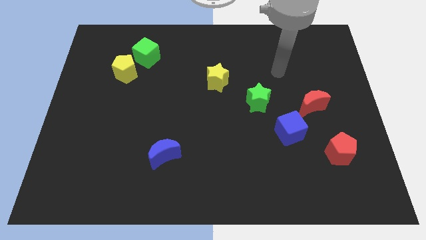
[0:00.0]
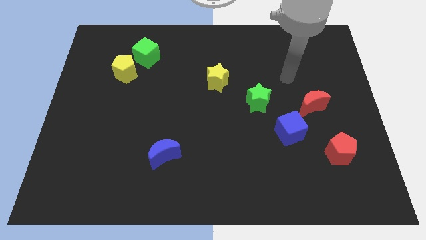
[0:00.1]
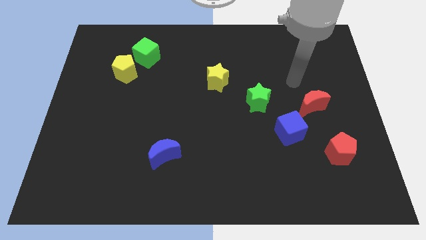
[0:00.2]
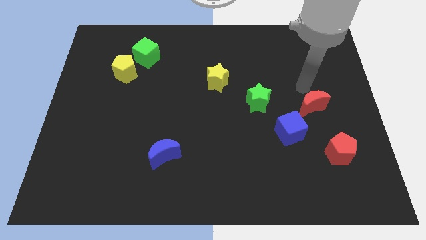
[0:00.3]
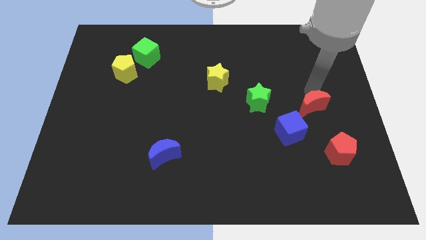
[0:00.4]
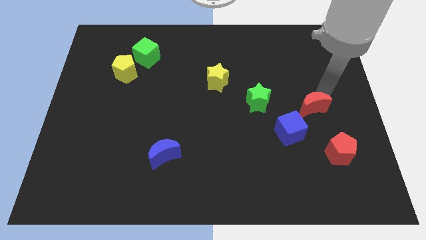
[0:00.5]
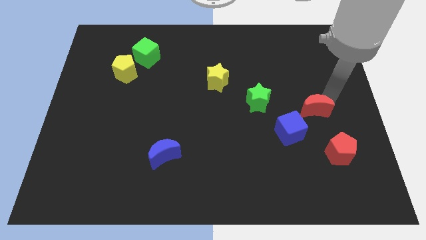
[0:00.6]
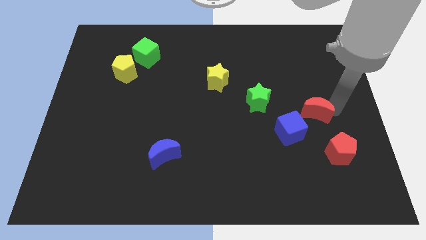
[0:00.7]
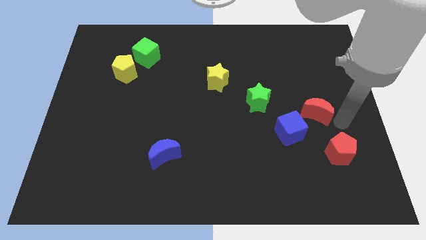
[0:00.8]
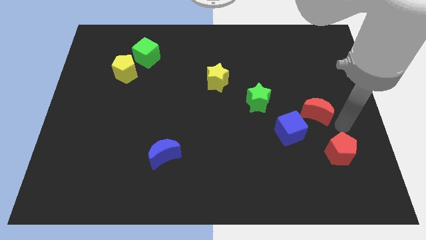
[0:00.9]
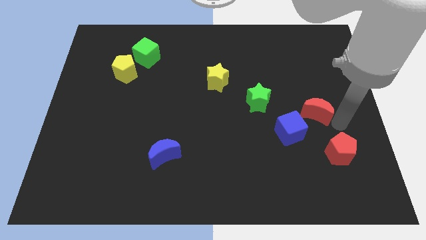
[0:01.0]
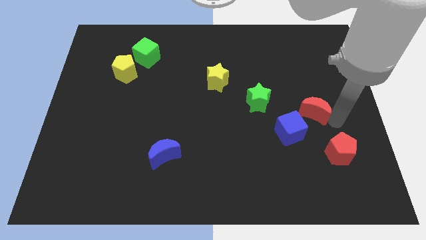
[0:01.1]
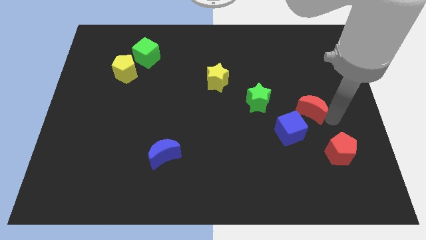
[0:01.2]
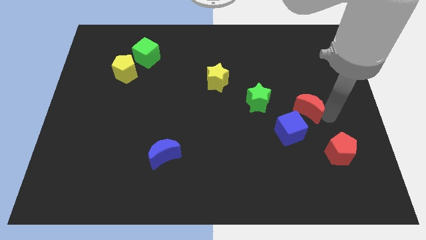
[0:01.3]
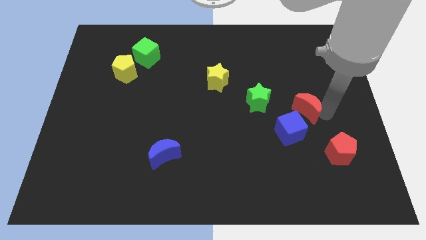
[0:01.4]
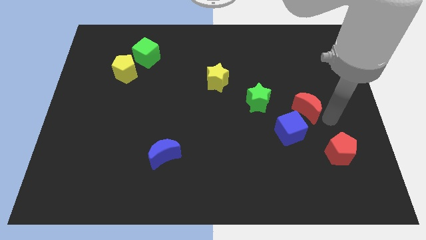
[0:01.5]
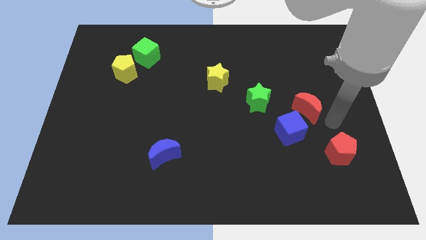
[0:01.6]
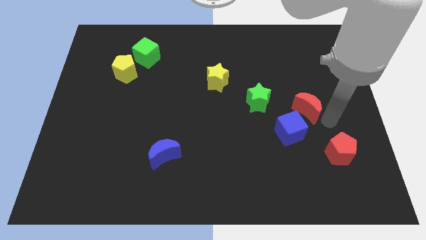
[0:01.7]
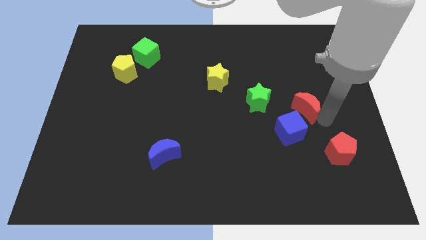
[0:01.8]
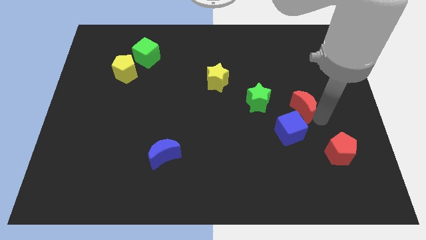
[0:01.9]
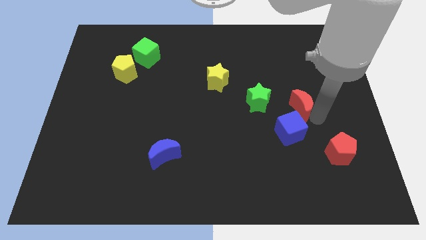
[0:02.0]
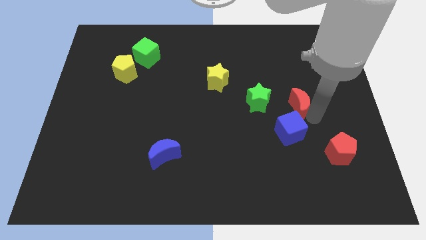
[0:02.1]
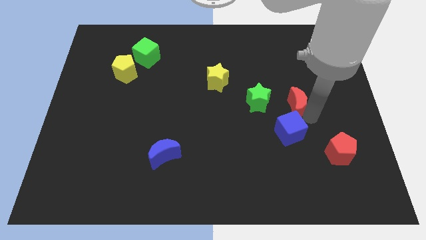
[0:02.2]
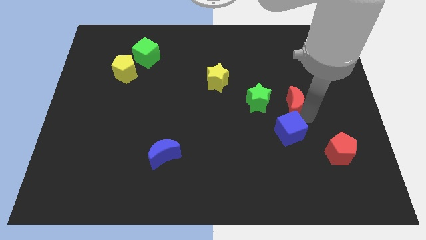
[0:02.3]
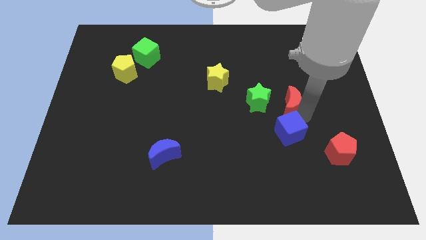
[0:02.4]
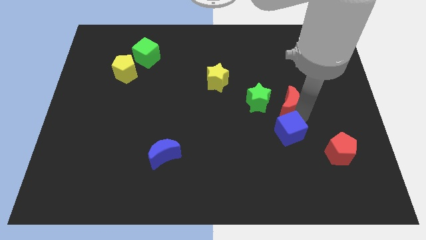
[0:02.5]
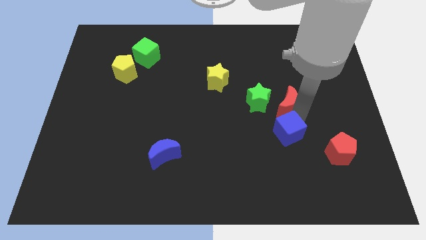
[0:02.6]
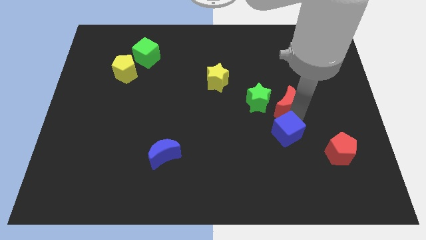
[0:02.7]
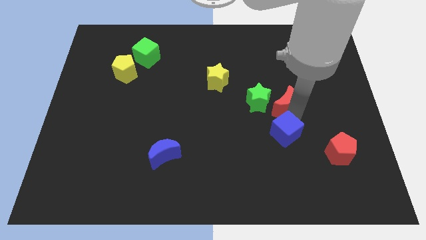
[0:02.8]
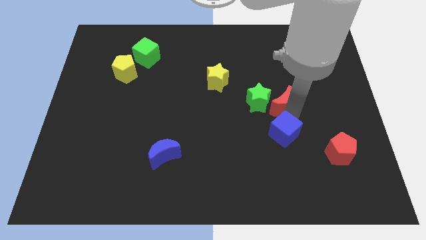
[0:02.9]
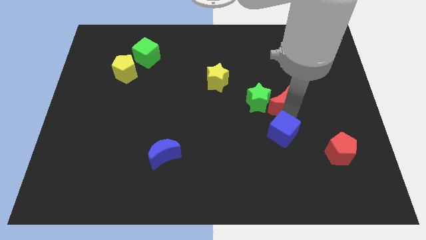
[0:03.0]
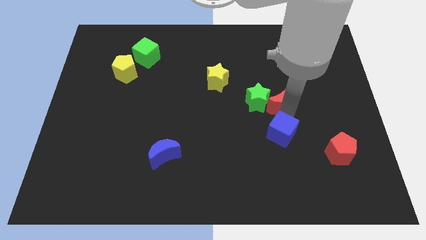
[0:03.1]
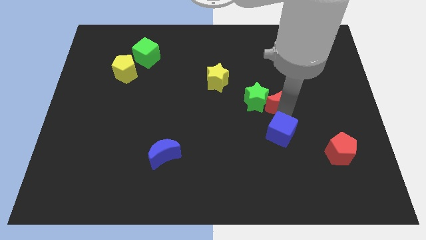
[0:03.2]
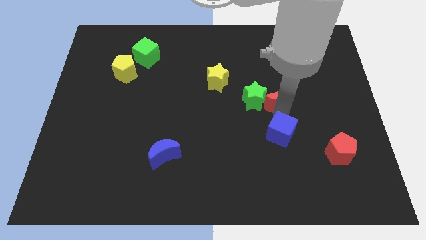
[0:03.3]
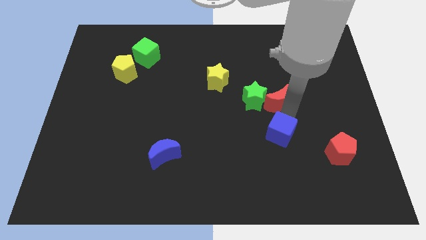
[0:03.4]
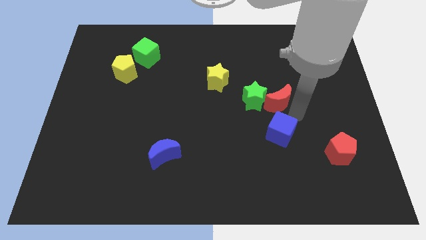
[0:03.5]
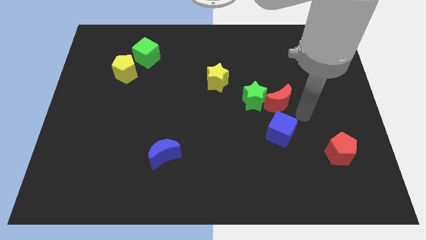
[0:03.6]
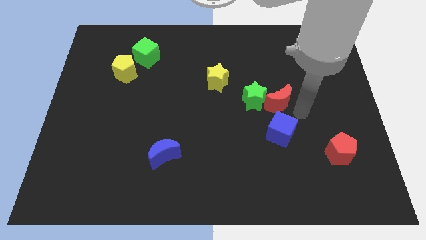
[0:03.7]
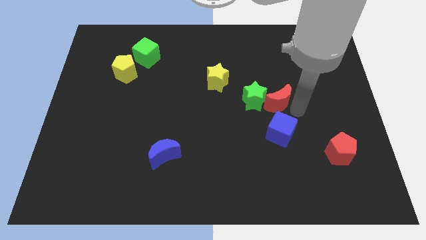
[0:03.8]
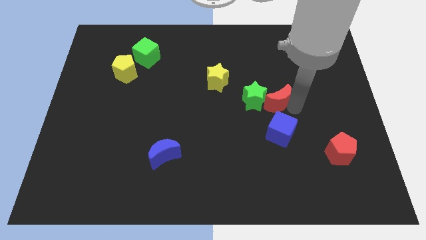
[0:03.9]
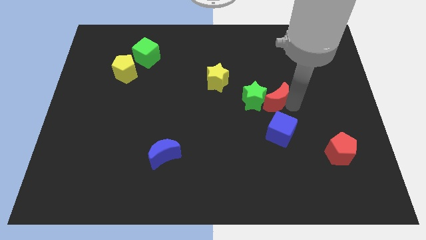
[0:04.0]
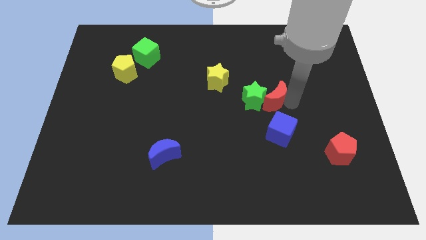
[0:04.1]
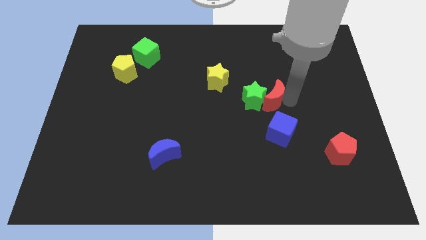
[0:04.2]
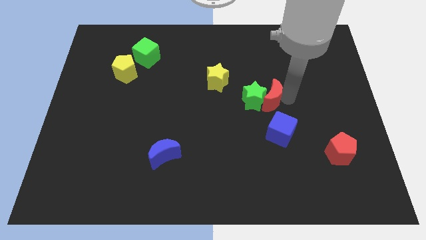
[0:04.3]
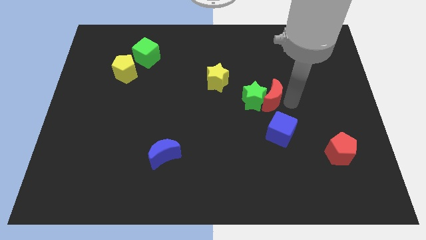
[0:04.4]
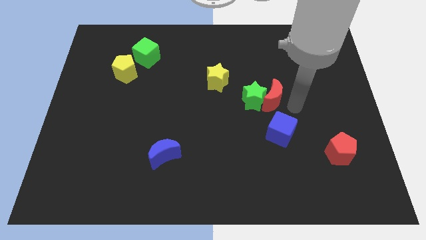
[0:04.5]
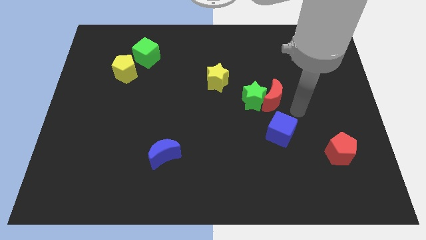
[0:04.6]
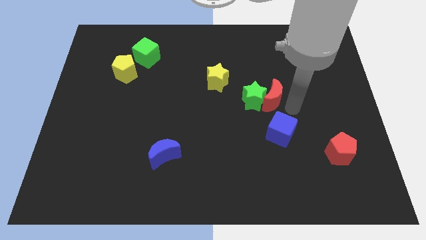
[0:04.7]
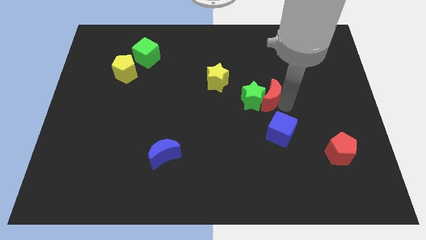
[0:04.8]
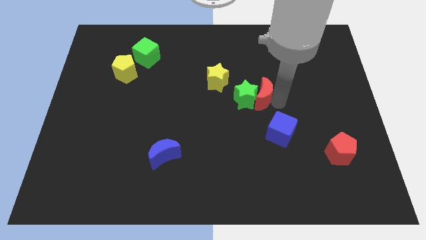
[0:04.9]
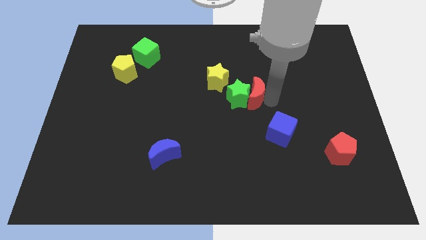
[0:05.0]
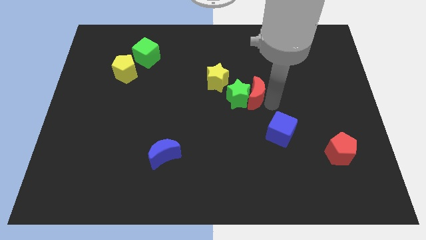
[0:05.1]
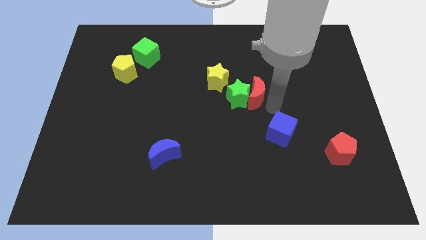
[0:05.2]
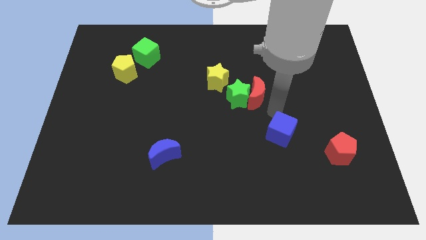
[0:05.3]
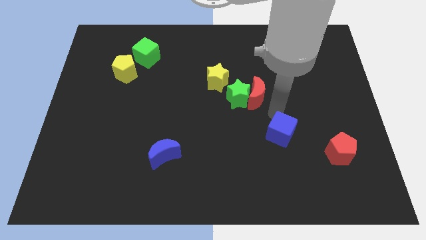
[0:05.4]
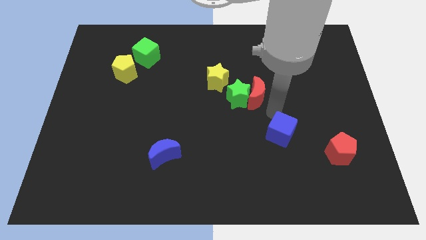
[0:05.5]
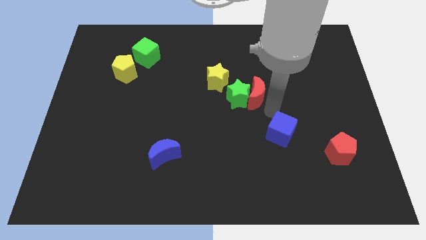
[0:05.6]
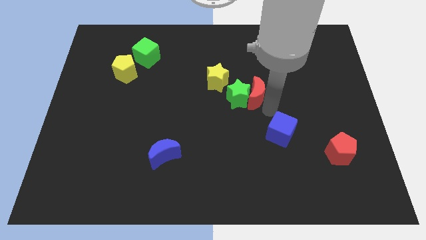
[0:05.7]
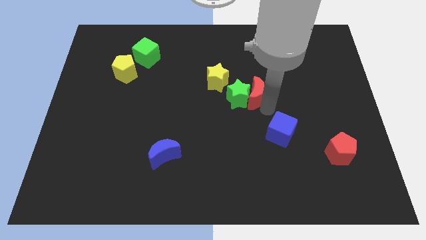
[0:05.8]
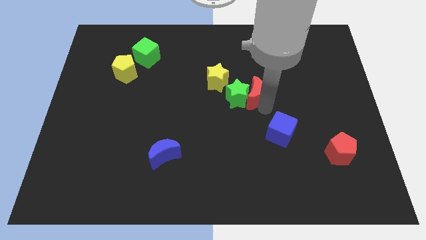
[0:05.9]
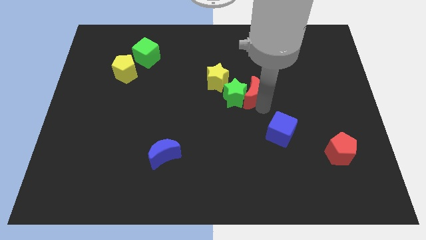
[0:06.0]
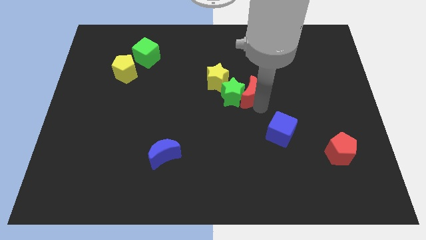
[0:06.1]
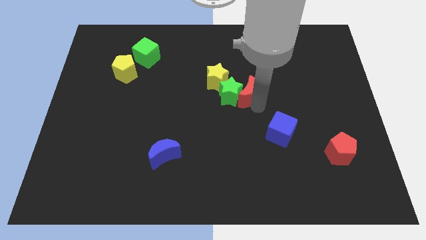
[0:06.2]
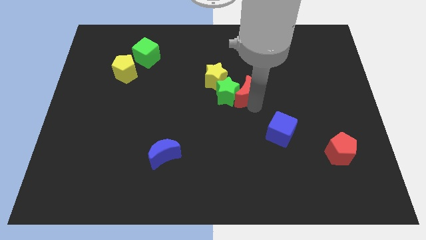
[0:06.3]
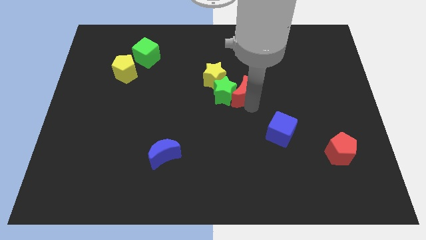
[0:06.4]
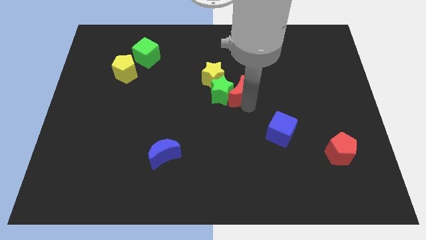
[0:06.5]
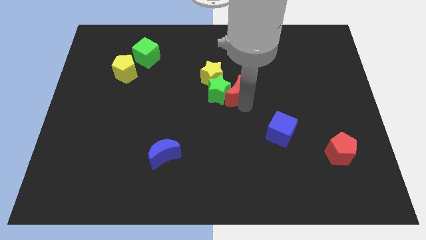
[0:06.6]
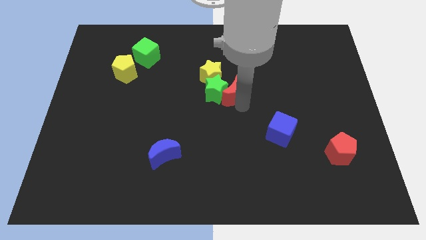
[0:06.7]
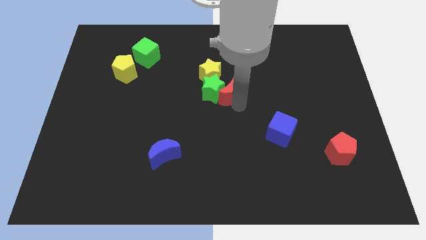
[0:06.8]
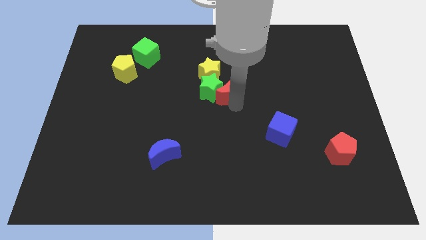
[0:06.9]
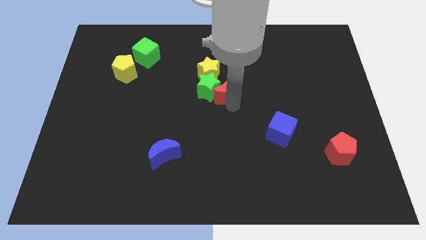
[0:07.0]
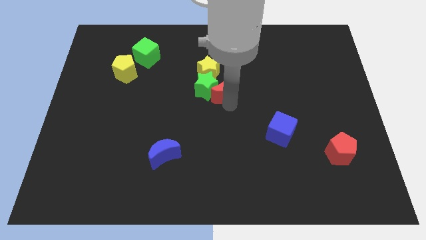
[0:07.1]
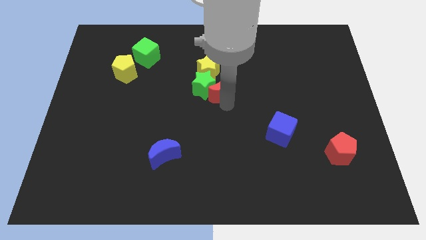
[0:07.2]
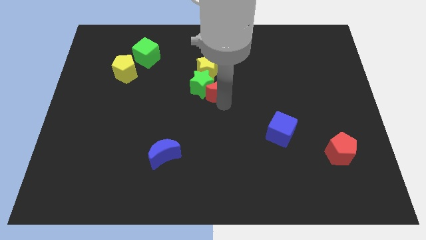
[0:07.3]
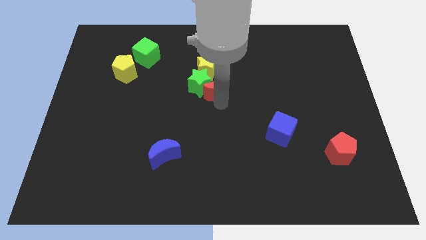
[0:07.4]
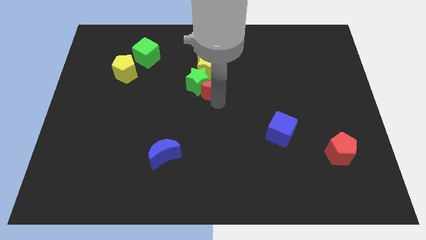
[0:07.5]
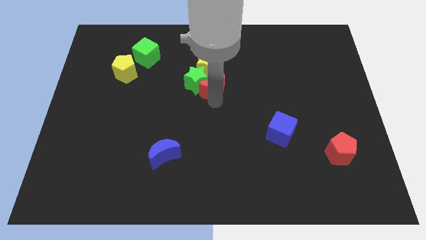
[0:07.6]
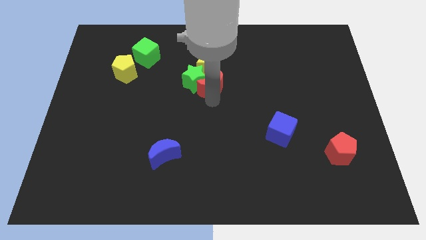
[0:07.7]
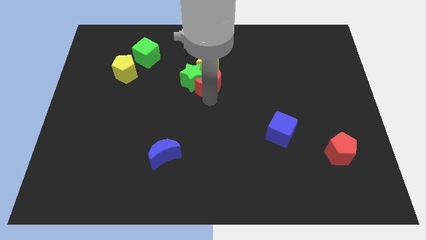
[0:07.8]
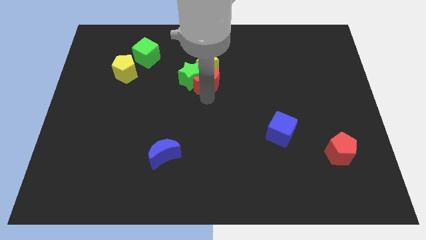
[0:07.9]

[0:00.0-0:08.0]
move the red moon towards the yellow star
